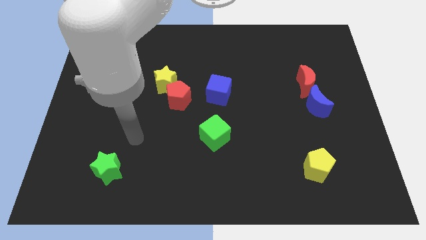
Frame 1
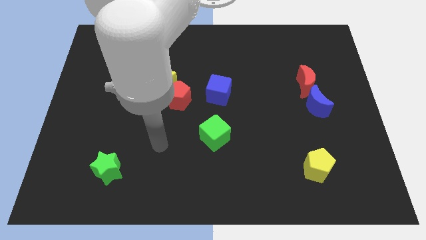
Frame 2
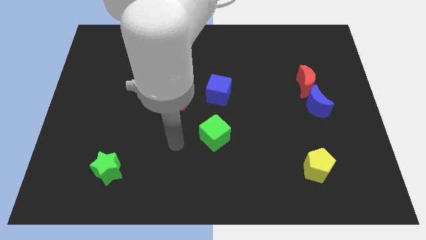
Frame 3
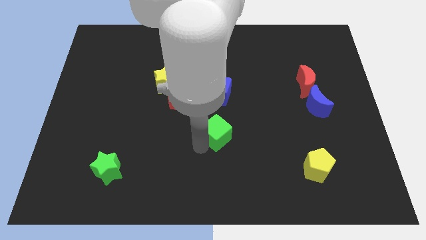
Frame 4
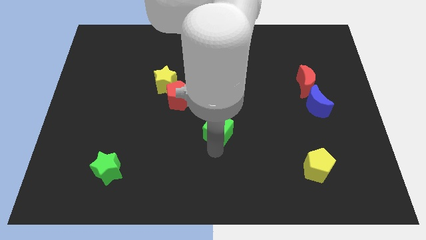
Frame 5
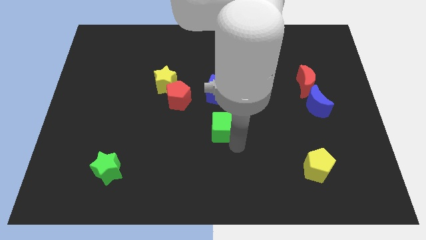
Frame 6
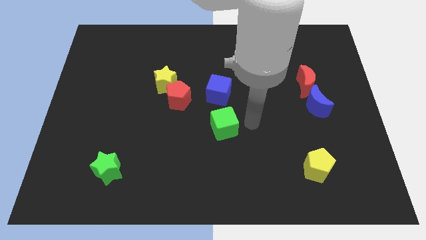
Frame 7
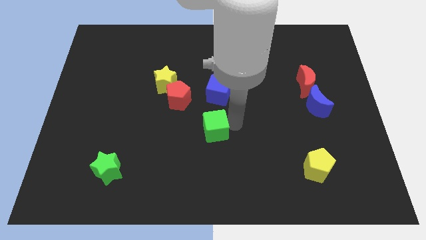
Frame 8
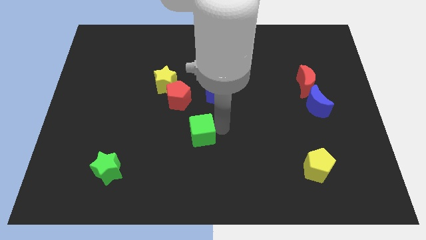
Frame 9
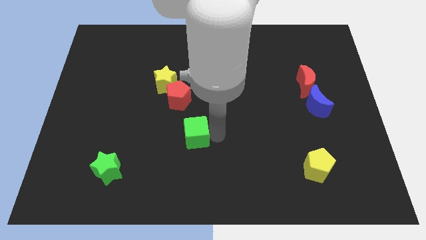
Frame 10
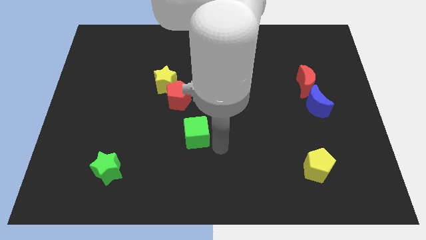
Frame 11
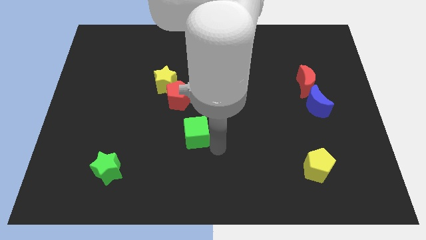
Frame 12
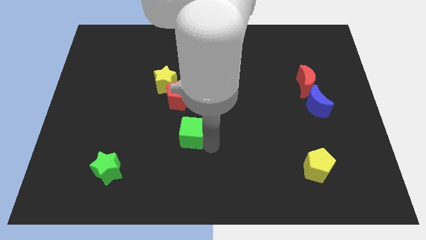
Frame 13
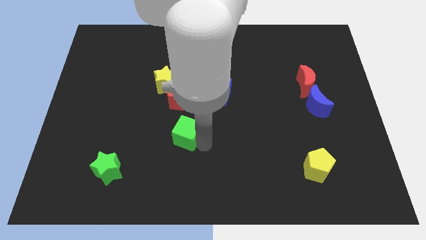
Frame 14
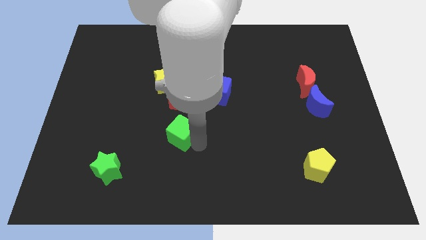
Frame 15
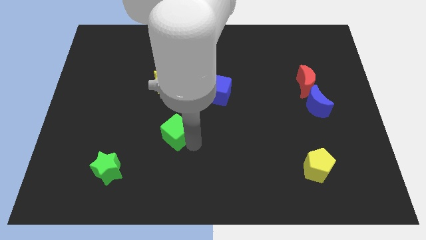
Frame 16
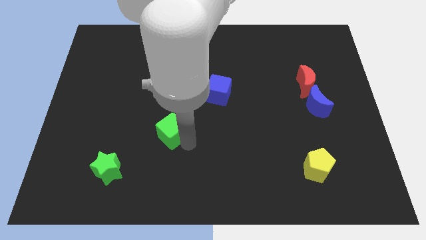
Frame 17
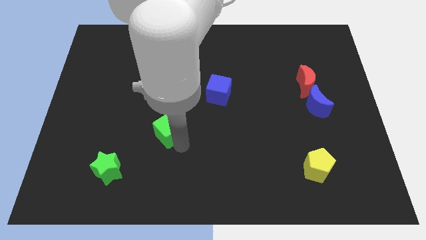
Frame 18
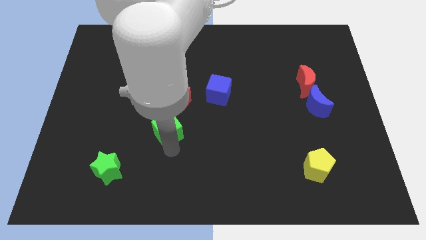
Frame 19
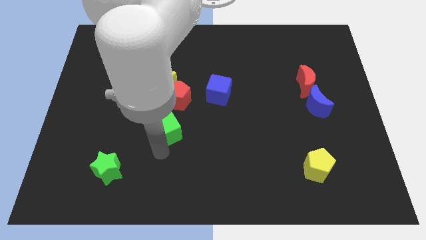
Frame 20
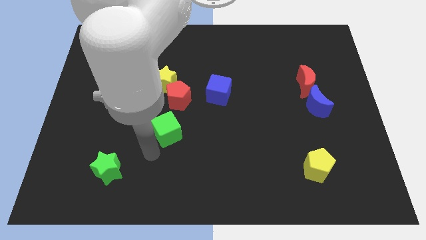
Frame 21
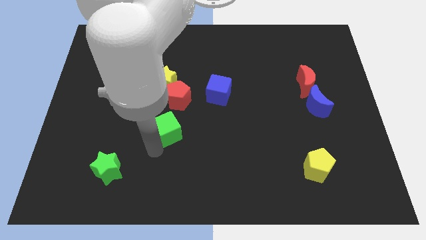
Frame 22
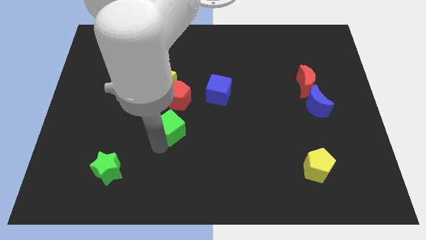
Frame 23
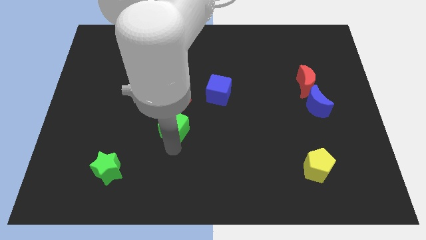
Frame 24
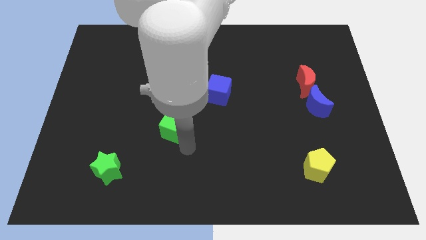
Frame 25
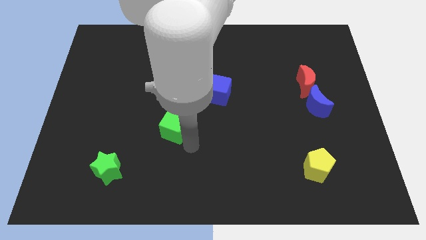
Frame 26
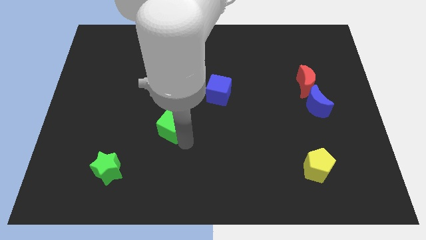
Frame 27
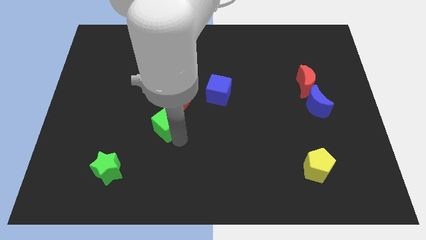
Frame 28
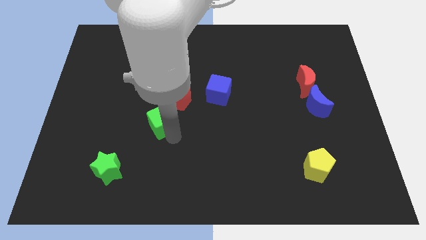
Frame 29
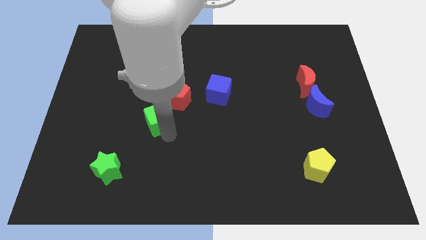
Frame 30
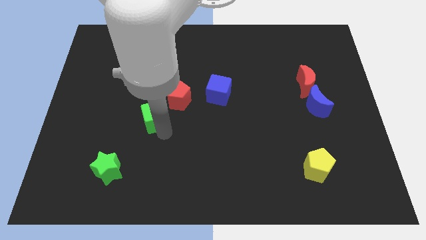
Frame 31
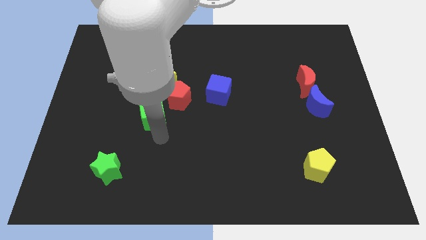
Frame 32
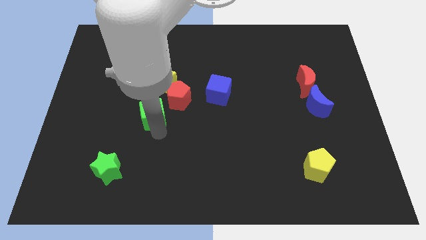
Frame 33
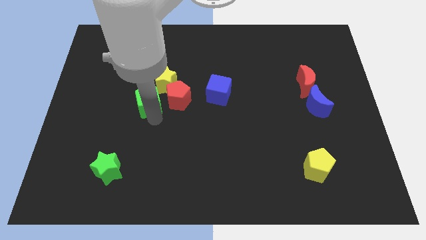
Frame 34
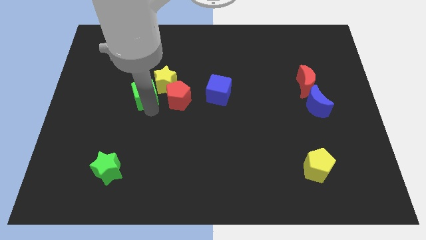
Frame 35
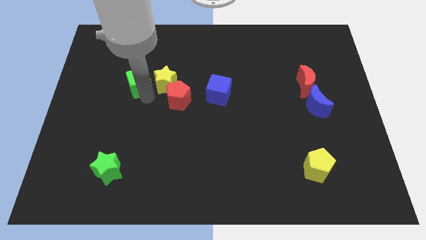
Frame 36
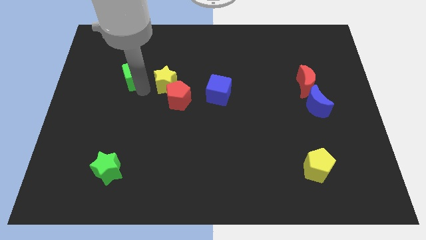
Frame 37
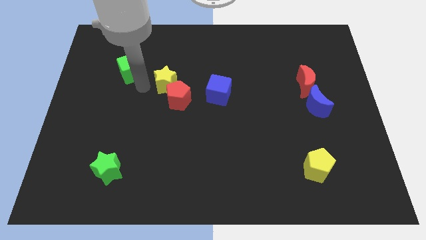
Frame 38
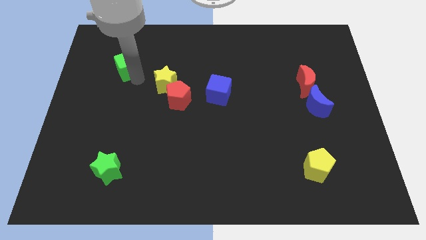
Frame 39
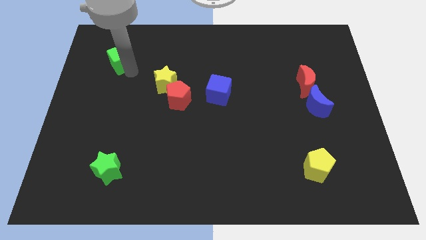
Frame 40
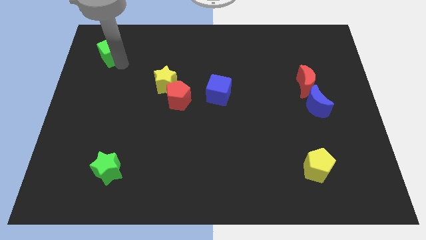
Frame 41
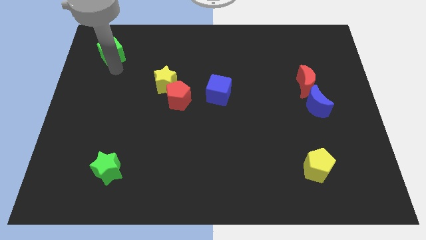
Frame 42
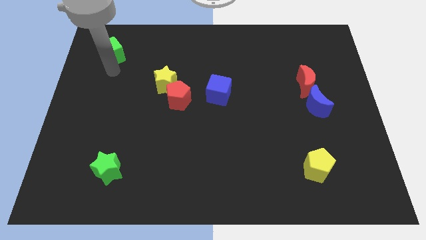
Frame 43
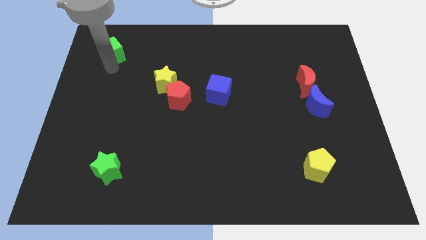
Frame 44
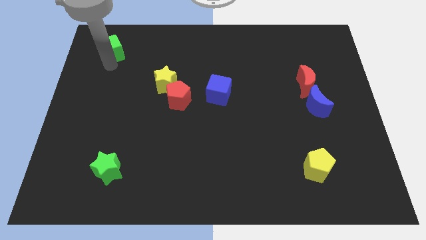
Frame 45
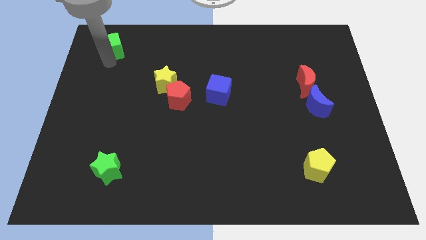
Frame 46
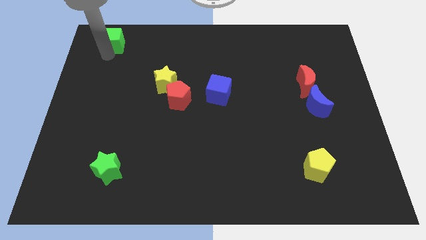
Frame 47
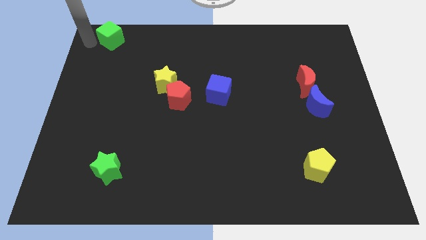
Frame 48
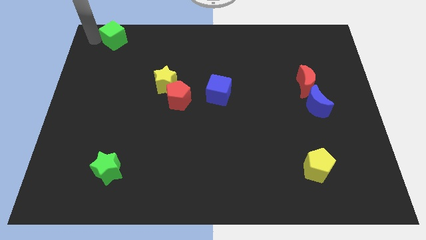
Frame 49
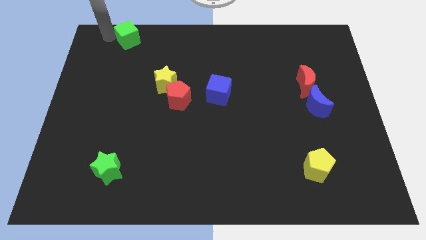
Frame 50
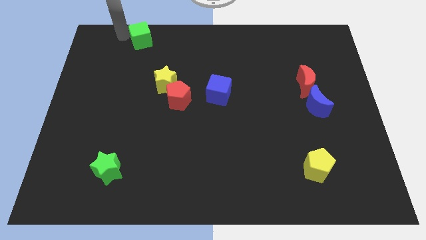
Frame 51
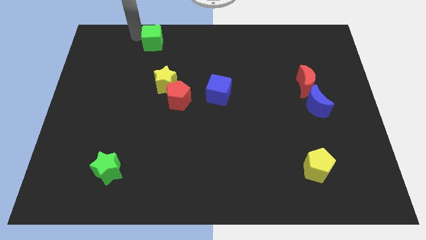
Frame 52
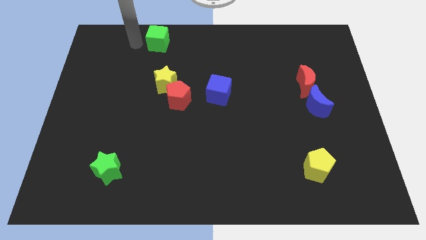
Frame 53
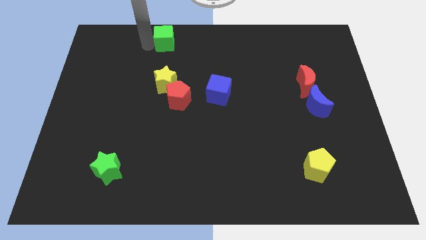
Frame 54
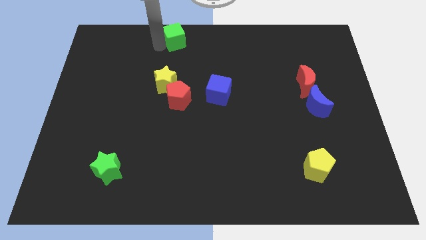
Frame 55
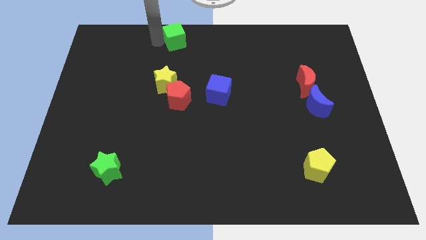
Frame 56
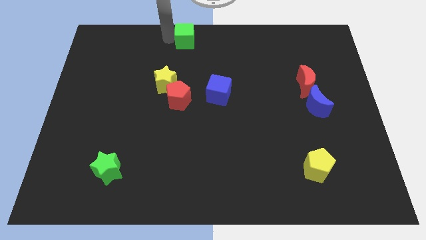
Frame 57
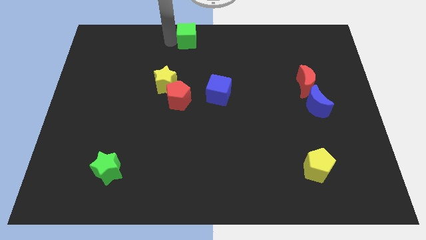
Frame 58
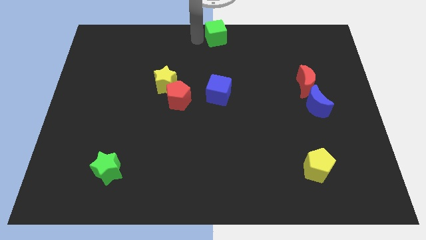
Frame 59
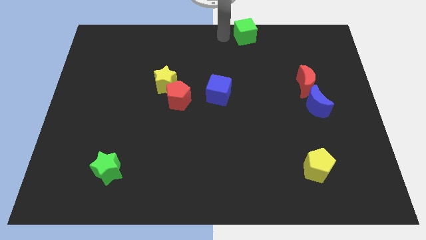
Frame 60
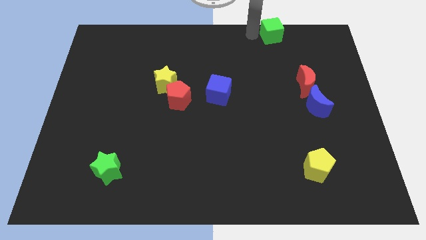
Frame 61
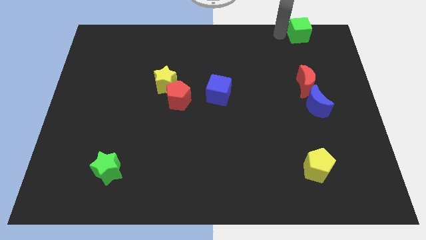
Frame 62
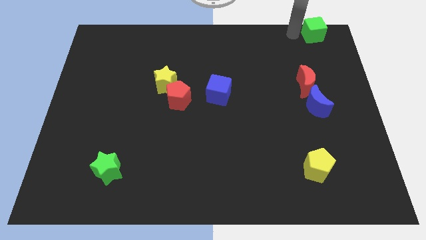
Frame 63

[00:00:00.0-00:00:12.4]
put the green cube to the top right of the board

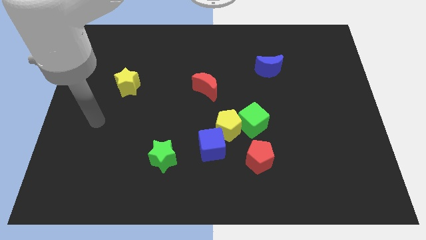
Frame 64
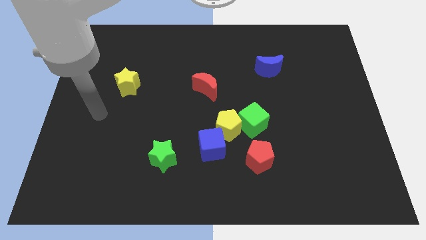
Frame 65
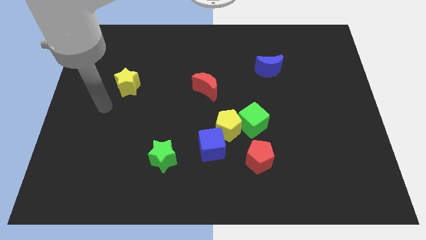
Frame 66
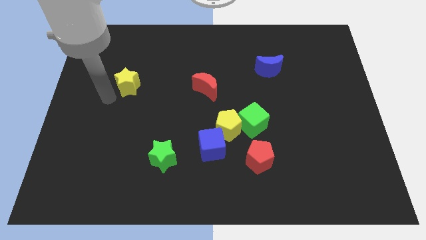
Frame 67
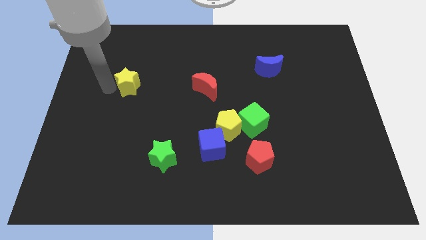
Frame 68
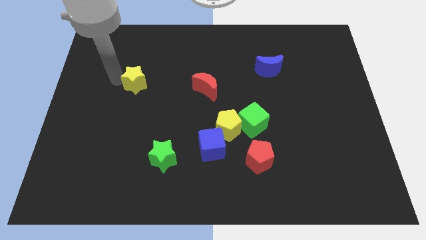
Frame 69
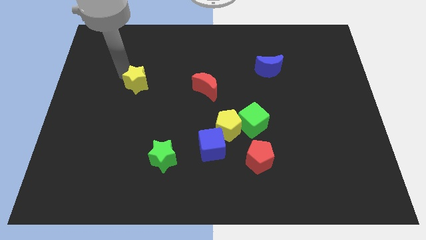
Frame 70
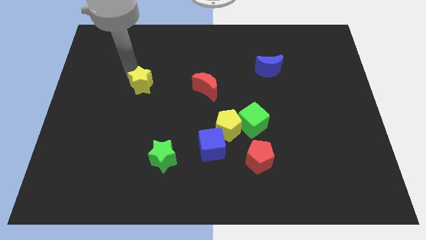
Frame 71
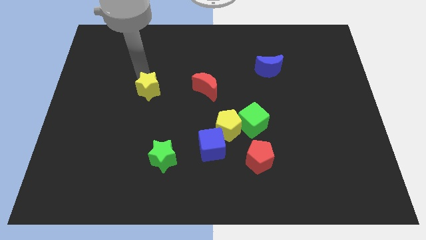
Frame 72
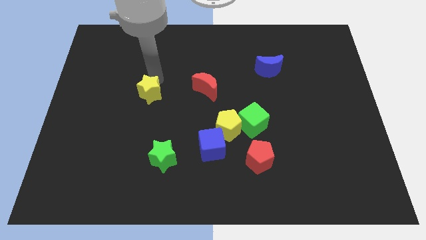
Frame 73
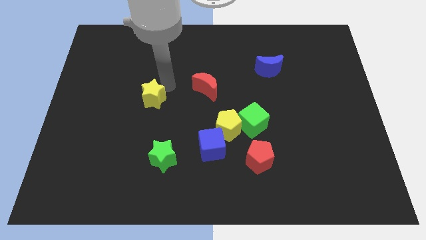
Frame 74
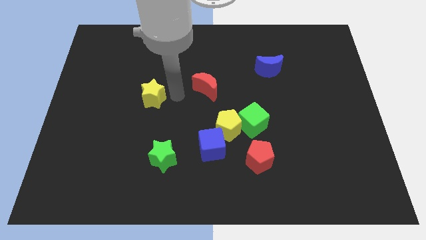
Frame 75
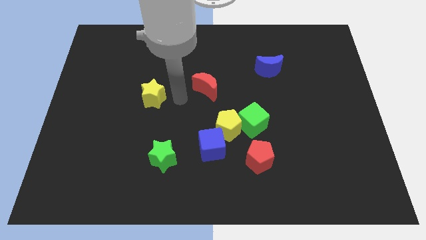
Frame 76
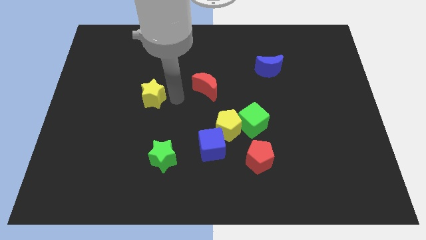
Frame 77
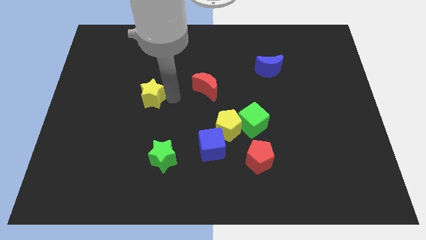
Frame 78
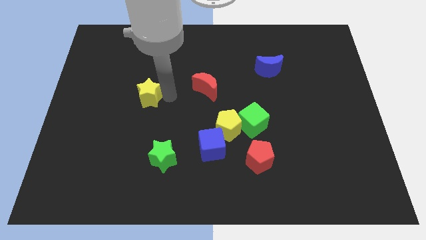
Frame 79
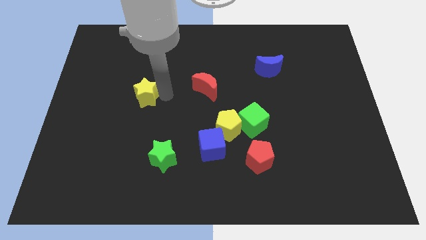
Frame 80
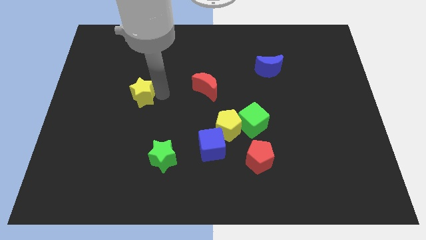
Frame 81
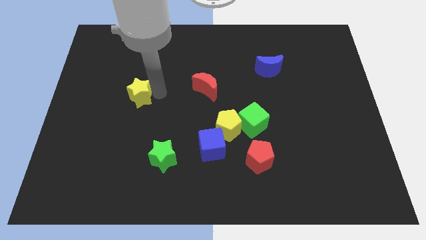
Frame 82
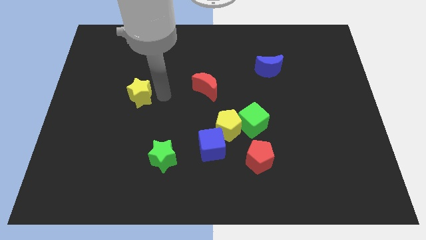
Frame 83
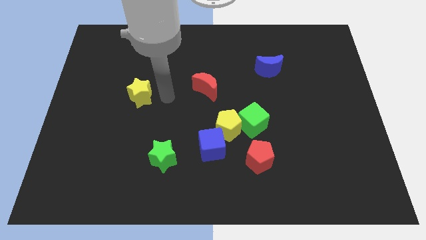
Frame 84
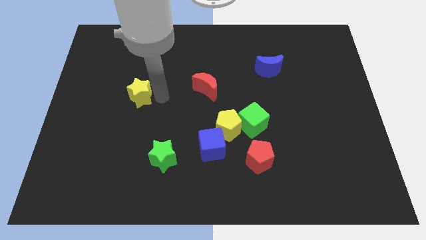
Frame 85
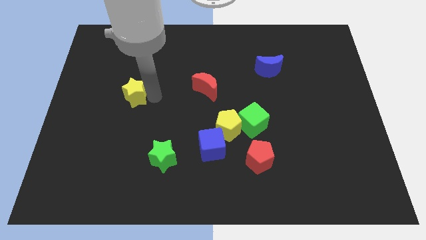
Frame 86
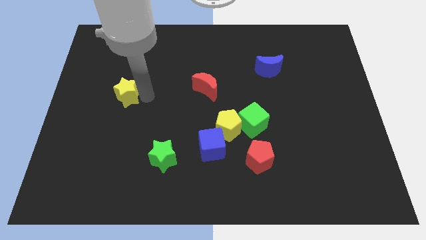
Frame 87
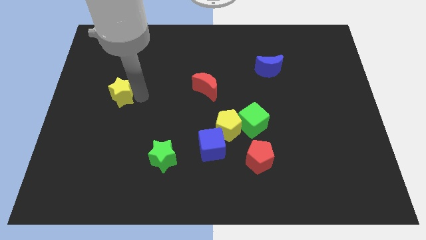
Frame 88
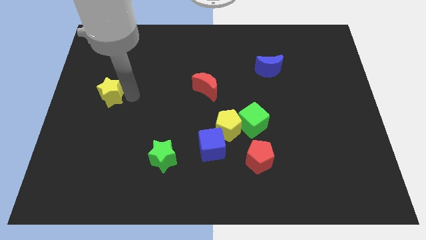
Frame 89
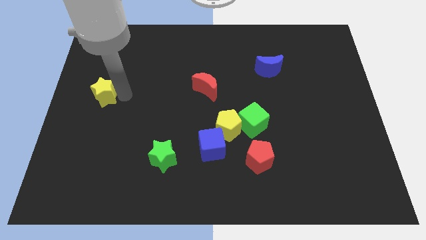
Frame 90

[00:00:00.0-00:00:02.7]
put the yellow star to the left side
